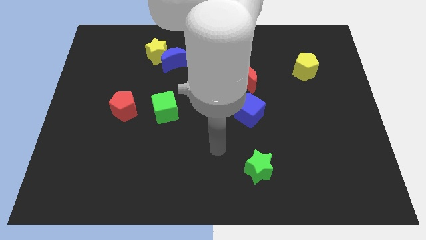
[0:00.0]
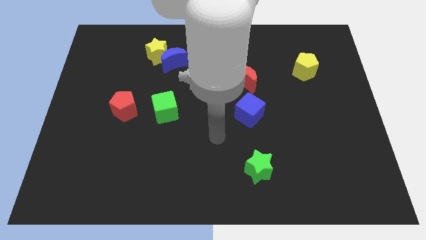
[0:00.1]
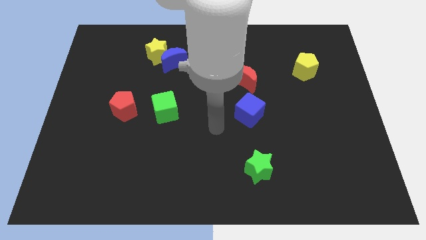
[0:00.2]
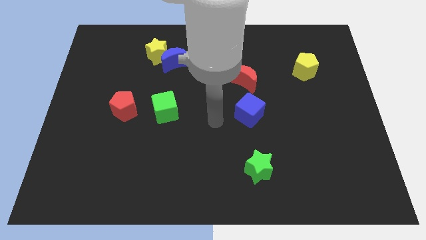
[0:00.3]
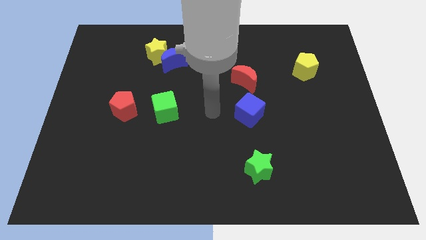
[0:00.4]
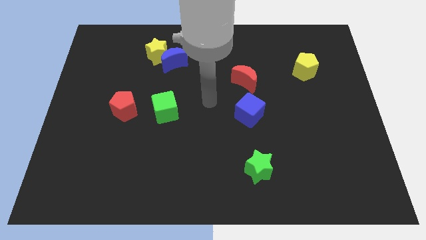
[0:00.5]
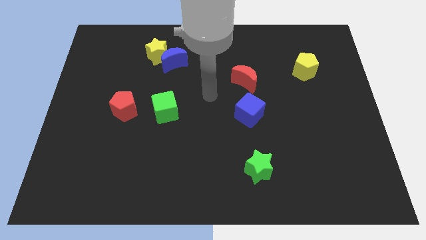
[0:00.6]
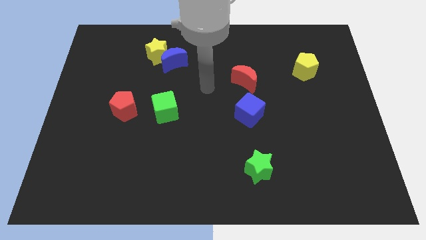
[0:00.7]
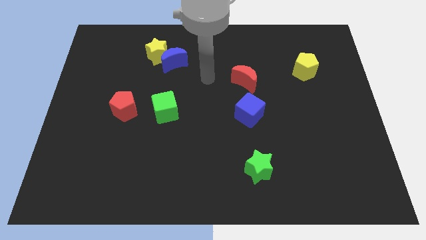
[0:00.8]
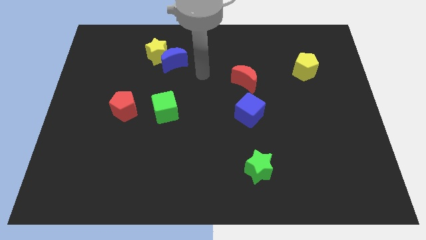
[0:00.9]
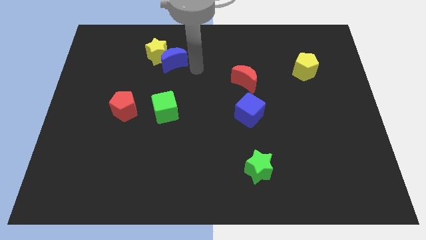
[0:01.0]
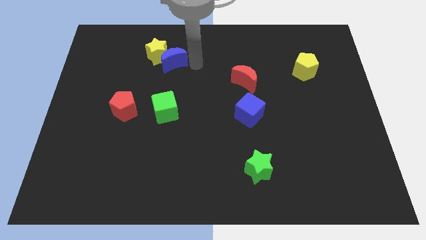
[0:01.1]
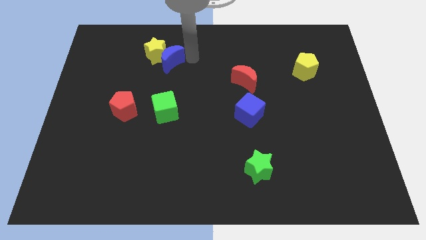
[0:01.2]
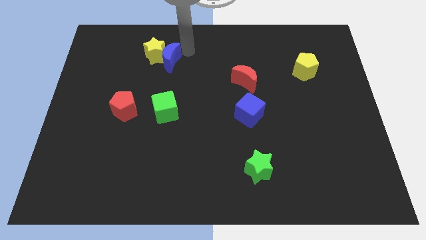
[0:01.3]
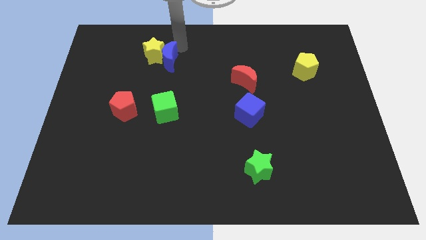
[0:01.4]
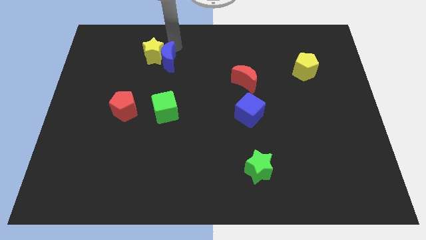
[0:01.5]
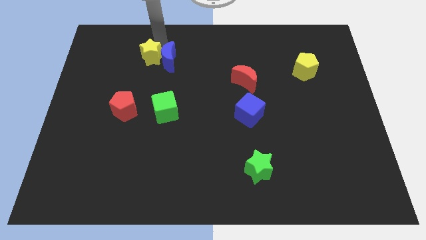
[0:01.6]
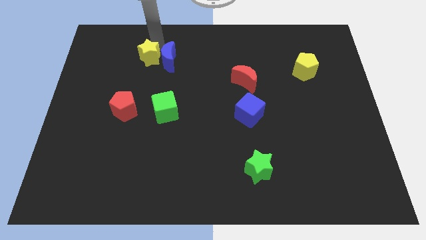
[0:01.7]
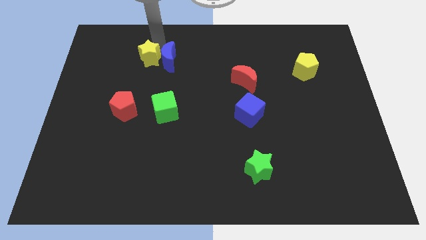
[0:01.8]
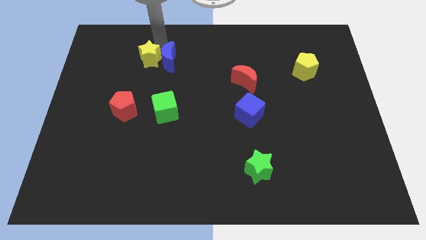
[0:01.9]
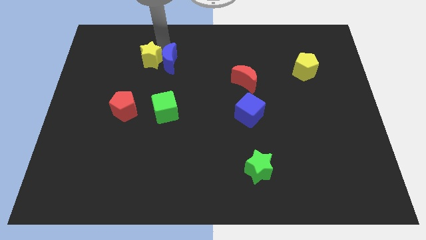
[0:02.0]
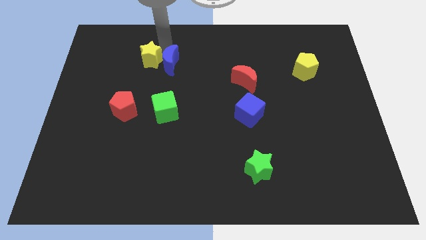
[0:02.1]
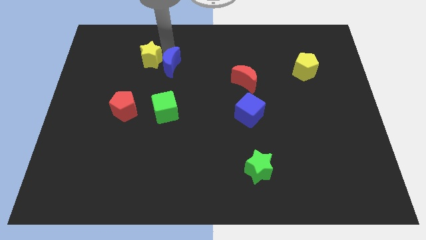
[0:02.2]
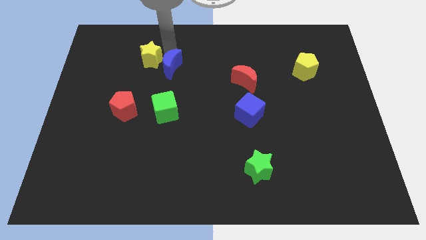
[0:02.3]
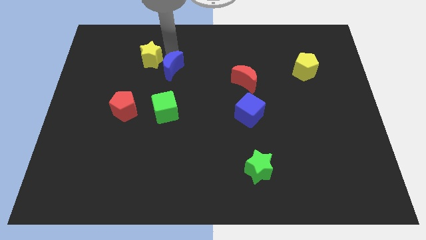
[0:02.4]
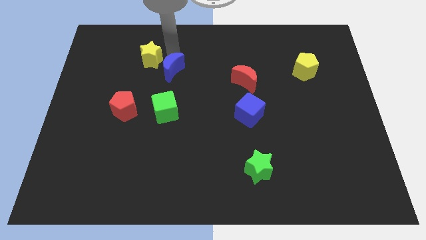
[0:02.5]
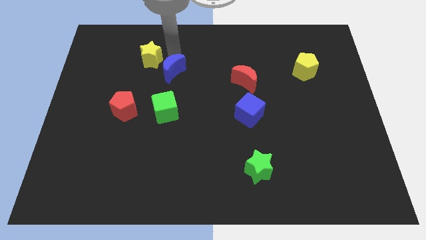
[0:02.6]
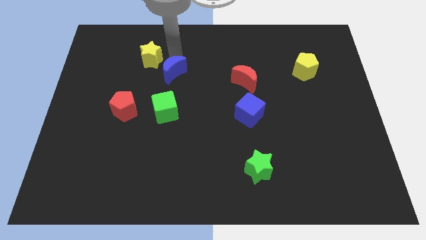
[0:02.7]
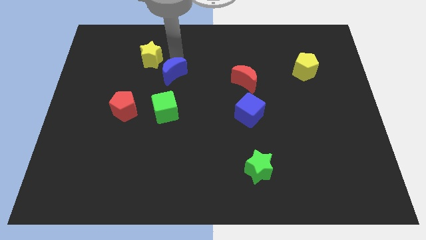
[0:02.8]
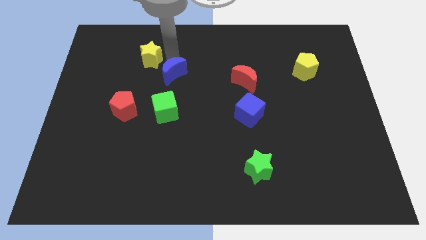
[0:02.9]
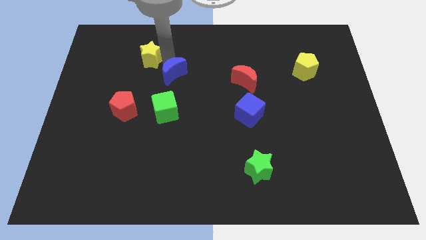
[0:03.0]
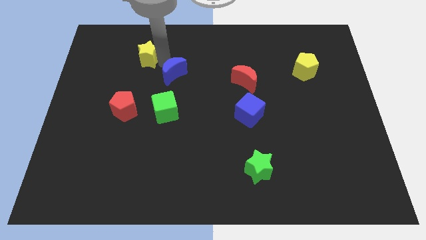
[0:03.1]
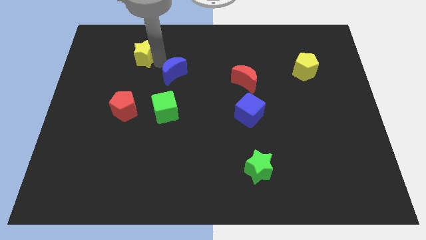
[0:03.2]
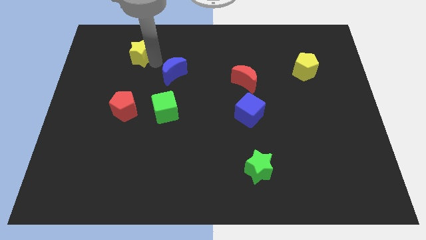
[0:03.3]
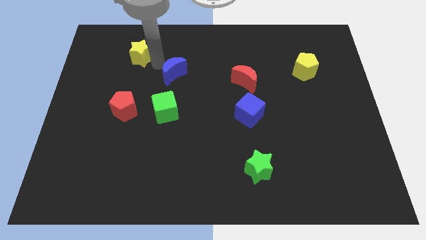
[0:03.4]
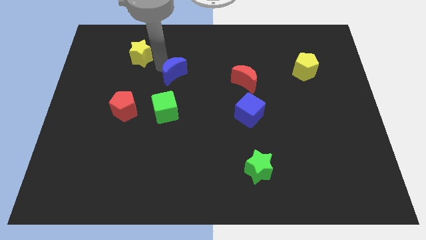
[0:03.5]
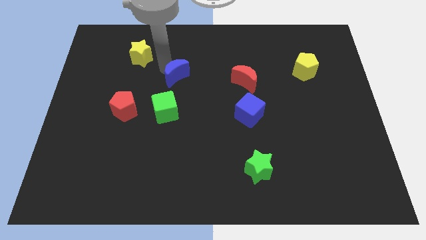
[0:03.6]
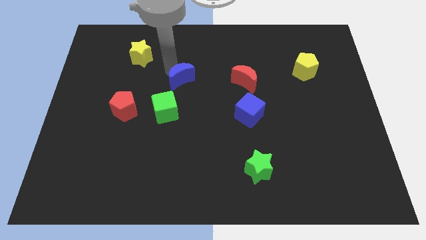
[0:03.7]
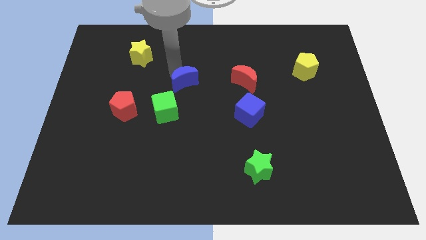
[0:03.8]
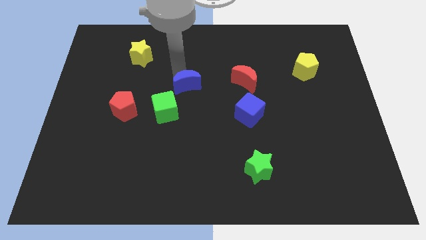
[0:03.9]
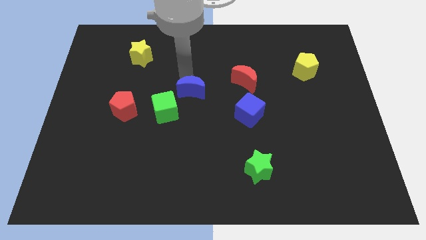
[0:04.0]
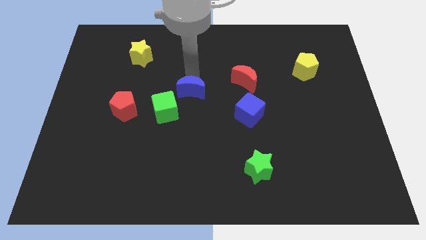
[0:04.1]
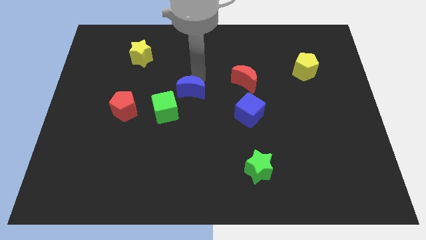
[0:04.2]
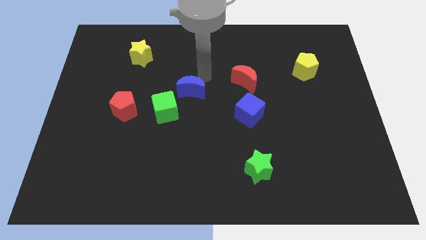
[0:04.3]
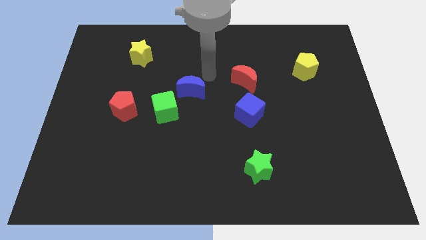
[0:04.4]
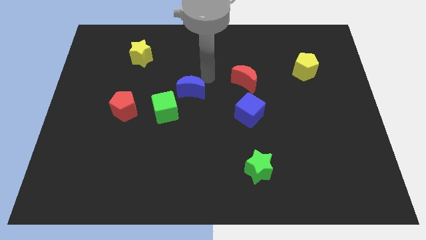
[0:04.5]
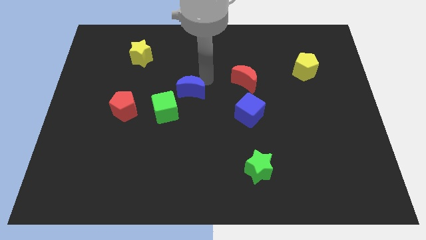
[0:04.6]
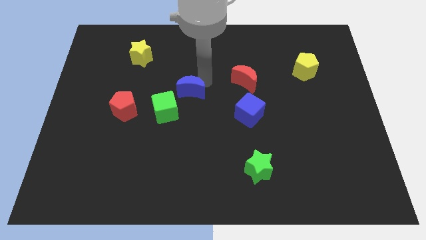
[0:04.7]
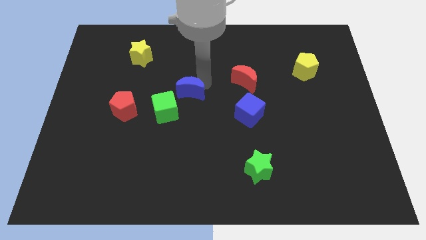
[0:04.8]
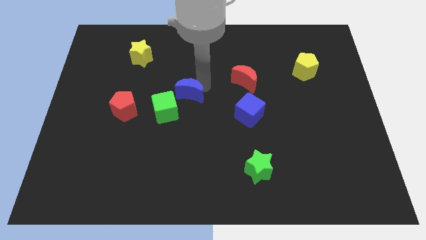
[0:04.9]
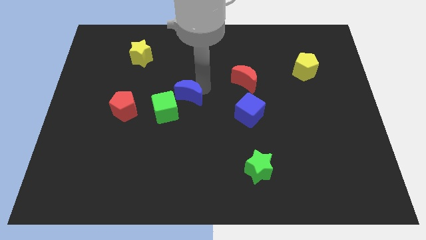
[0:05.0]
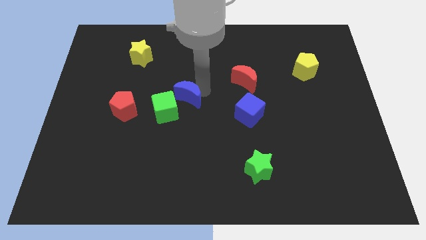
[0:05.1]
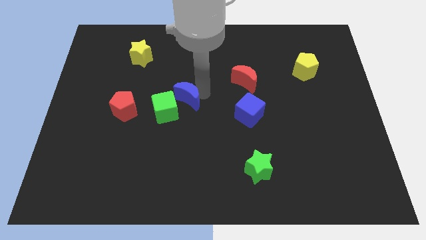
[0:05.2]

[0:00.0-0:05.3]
put the blue moon right of the red pentagon

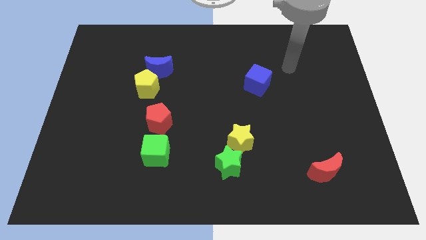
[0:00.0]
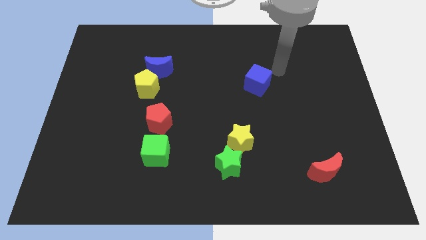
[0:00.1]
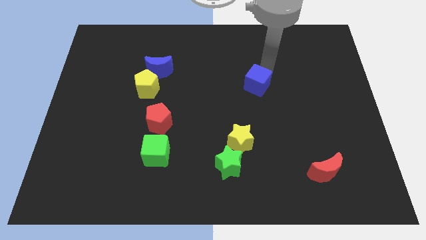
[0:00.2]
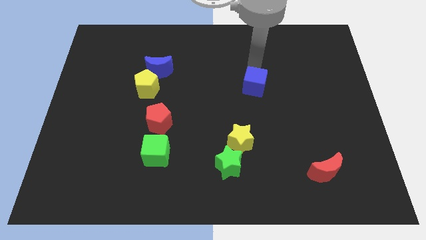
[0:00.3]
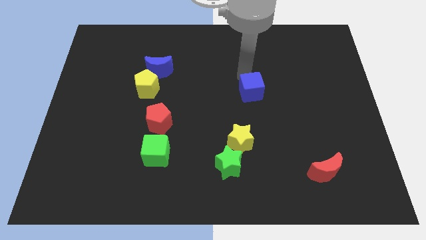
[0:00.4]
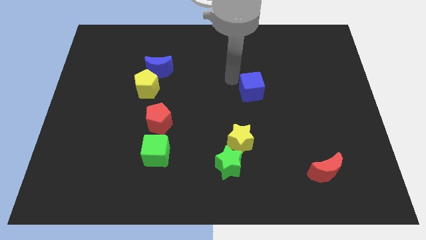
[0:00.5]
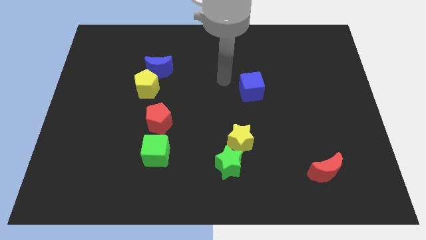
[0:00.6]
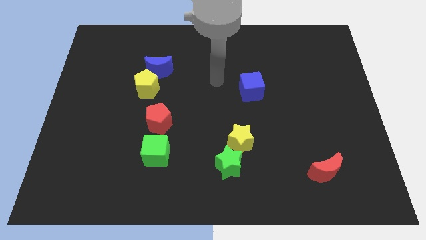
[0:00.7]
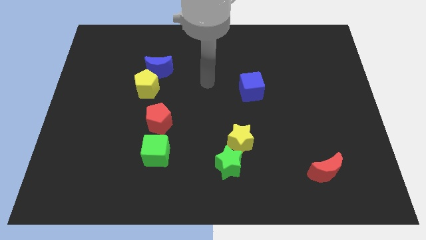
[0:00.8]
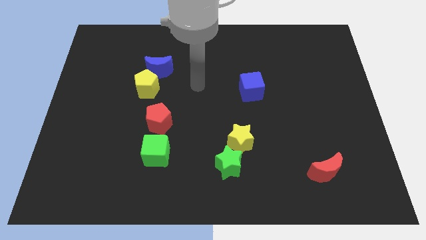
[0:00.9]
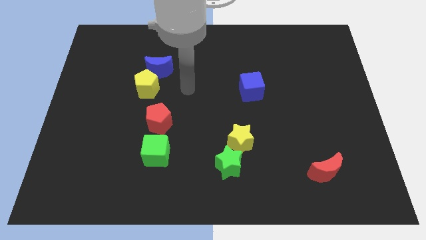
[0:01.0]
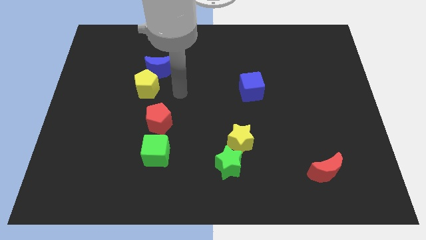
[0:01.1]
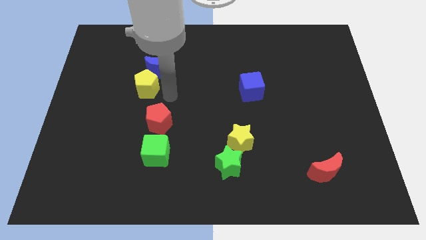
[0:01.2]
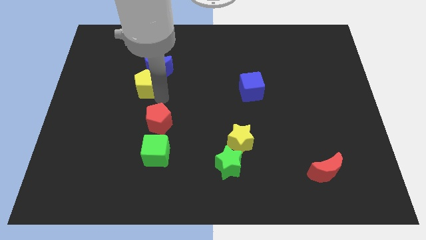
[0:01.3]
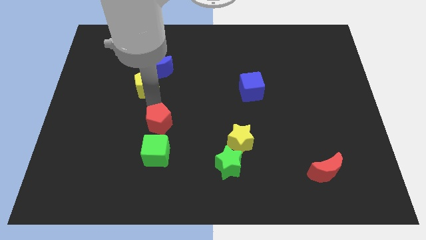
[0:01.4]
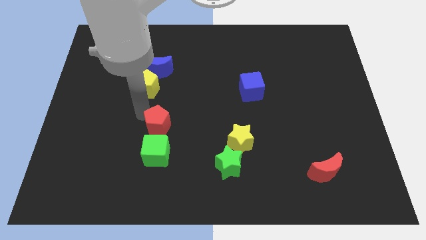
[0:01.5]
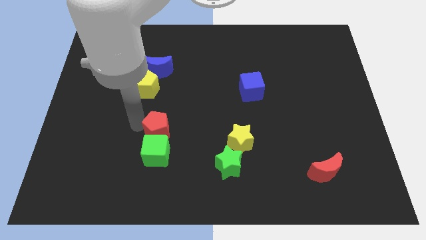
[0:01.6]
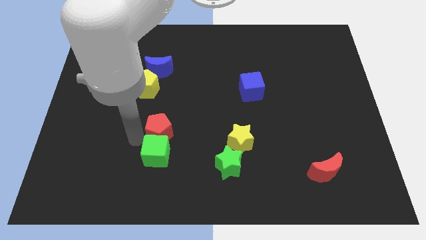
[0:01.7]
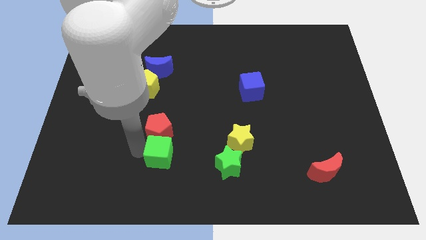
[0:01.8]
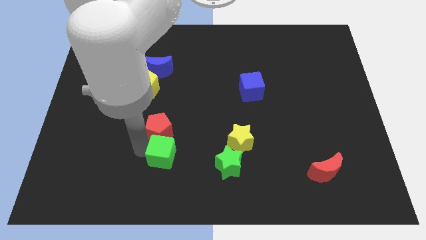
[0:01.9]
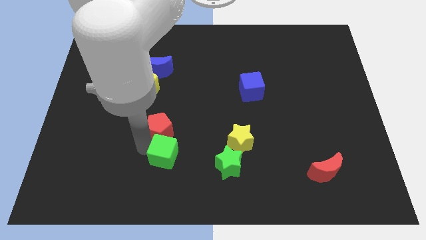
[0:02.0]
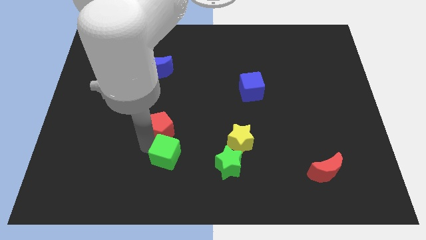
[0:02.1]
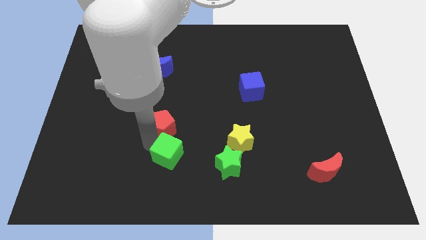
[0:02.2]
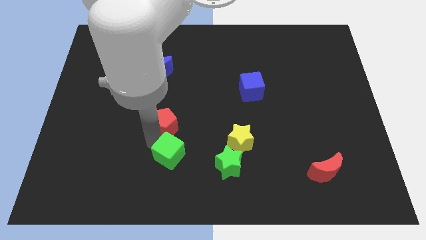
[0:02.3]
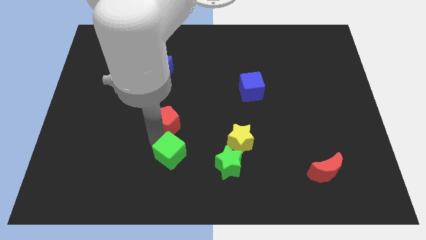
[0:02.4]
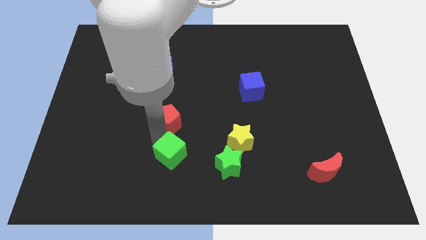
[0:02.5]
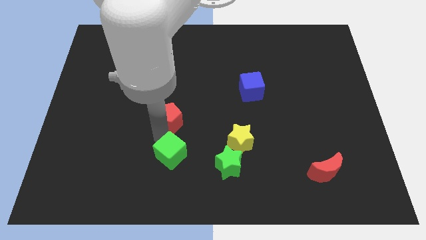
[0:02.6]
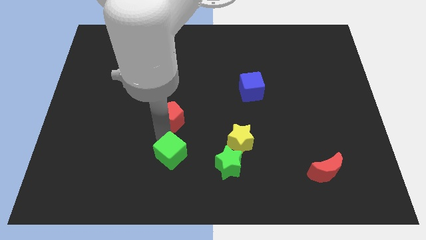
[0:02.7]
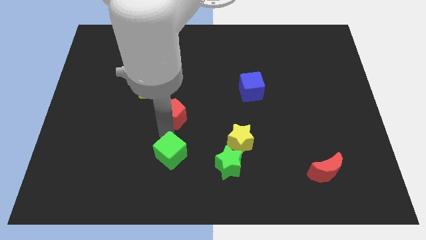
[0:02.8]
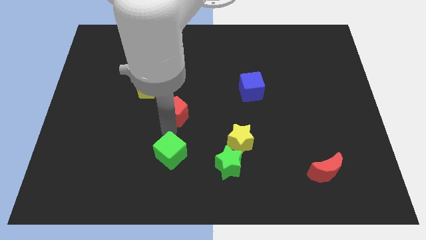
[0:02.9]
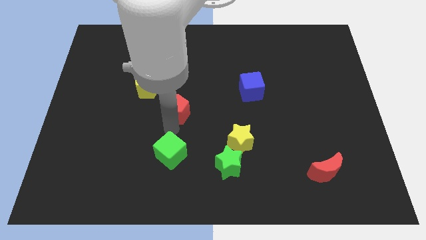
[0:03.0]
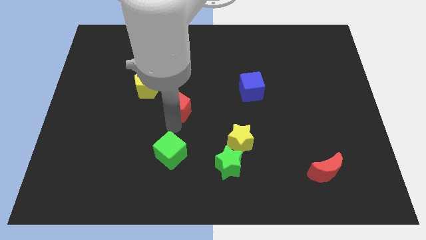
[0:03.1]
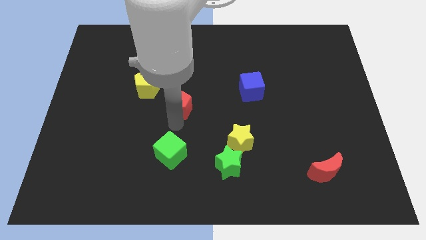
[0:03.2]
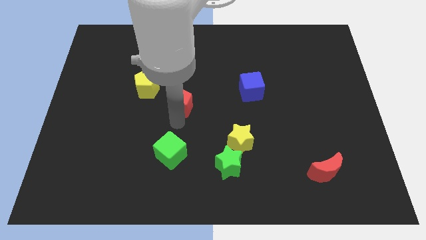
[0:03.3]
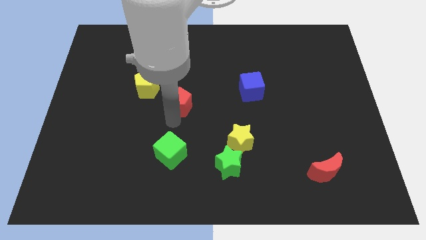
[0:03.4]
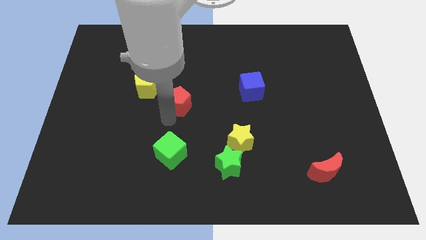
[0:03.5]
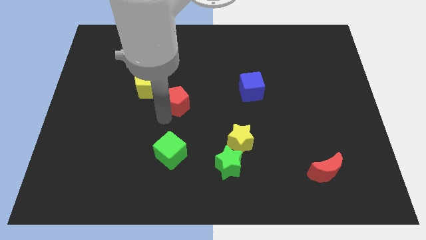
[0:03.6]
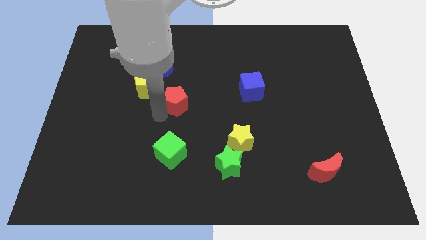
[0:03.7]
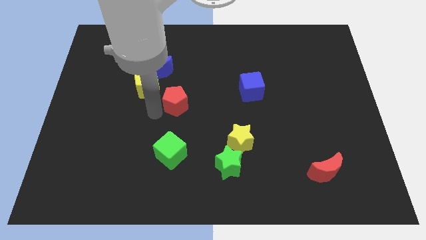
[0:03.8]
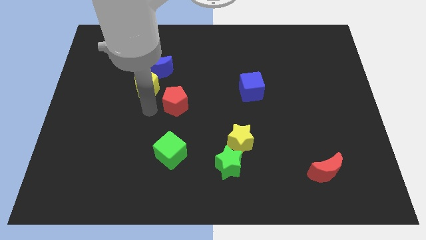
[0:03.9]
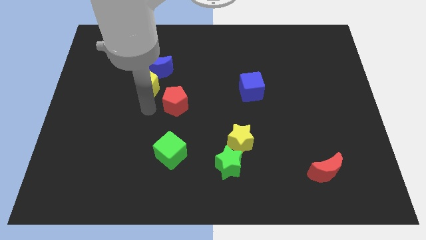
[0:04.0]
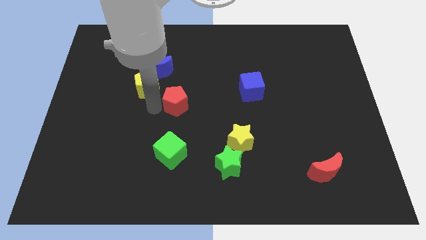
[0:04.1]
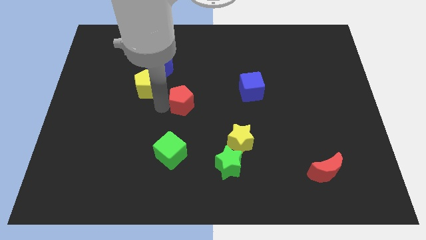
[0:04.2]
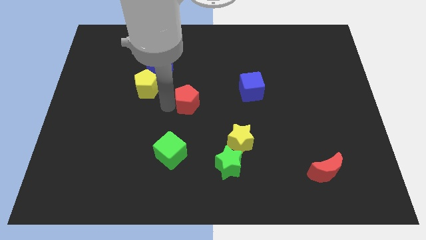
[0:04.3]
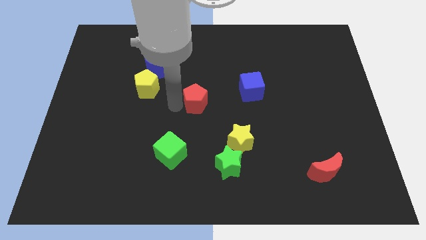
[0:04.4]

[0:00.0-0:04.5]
move the red pentagon to the left side of the blue cube
